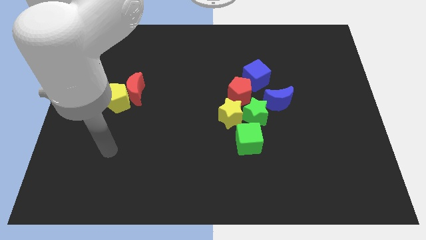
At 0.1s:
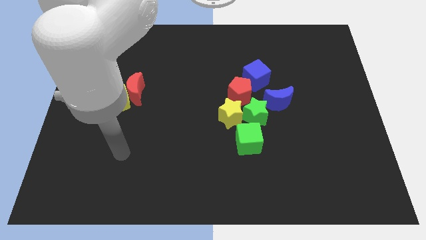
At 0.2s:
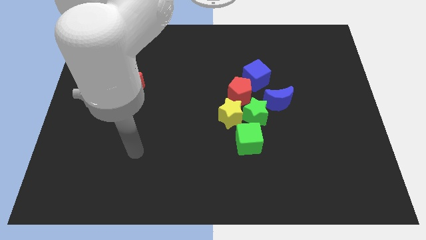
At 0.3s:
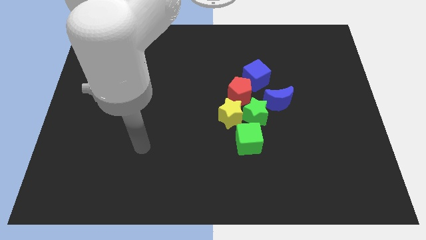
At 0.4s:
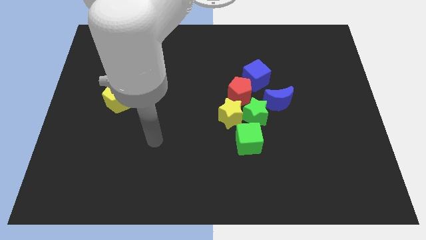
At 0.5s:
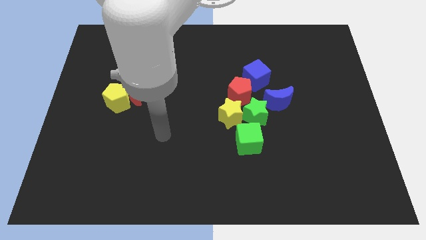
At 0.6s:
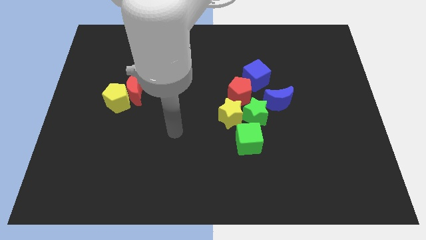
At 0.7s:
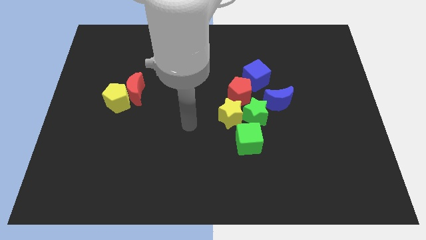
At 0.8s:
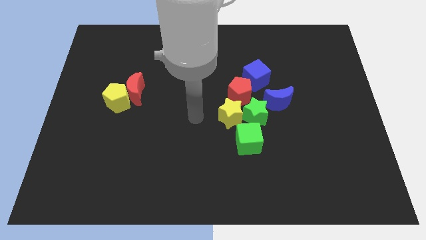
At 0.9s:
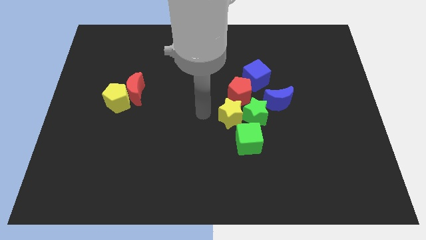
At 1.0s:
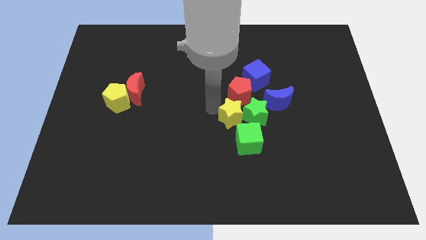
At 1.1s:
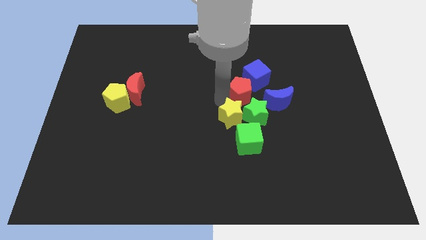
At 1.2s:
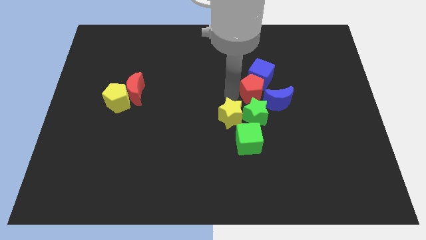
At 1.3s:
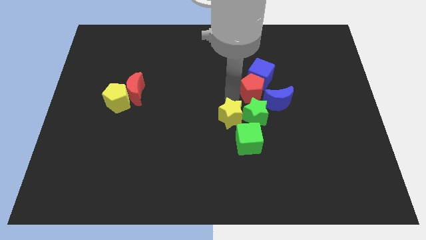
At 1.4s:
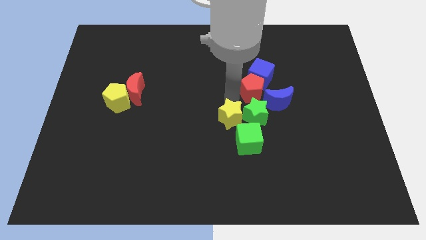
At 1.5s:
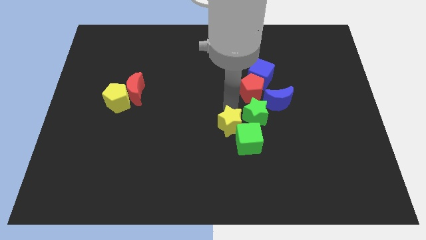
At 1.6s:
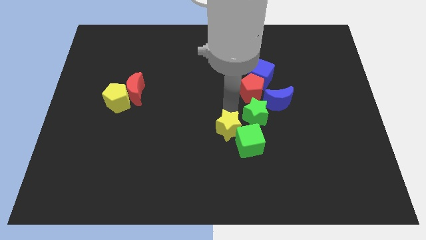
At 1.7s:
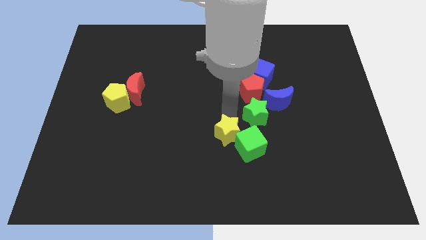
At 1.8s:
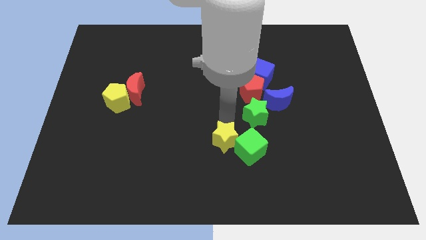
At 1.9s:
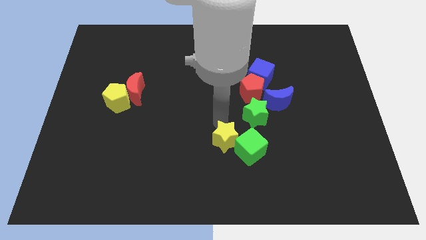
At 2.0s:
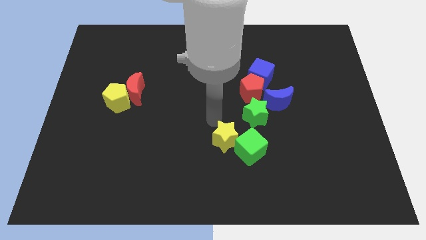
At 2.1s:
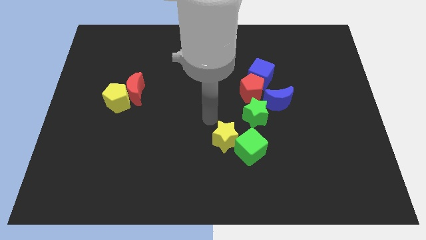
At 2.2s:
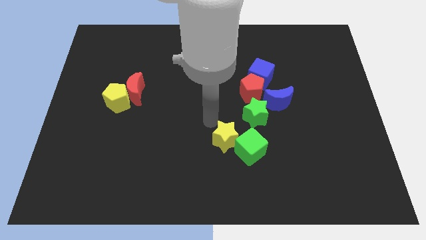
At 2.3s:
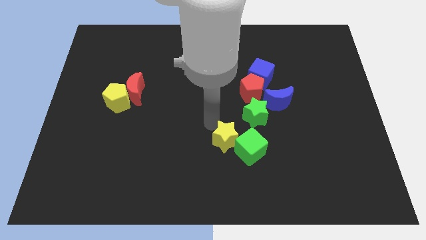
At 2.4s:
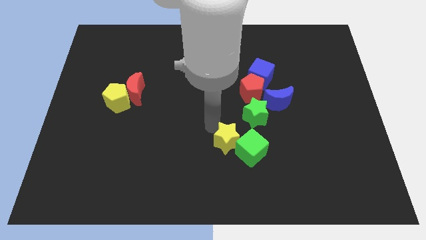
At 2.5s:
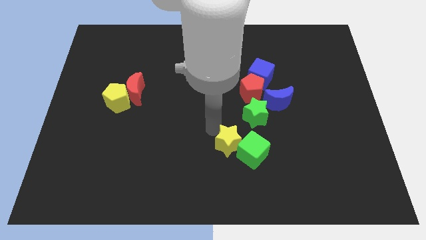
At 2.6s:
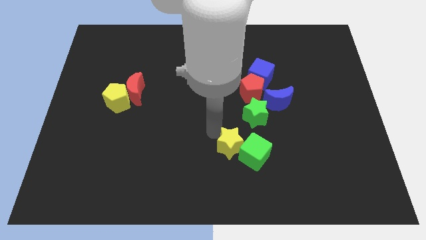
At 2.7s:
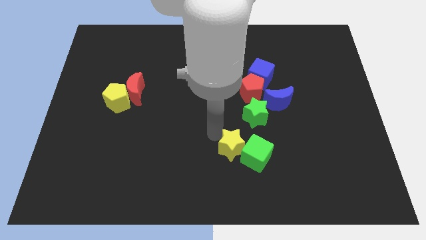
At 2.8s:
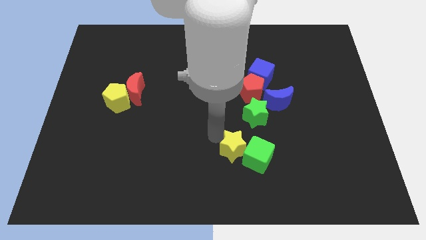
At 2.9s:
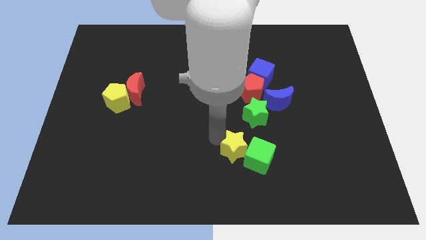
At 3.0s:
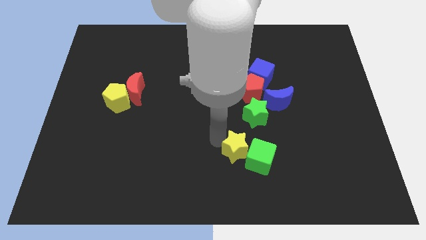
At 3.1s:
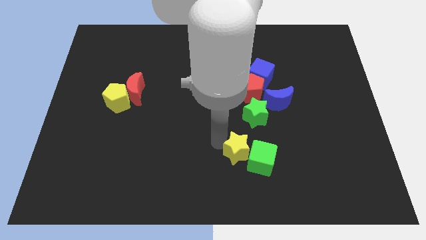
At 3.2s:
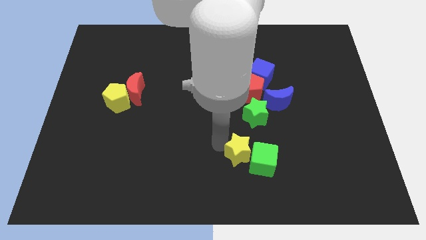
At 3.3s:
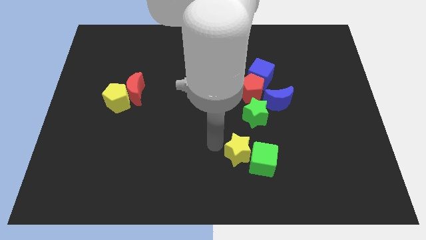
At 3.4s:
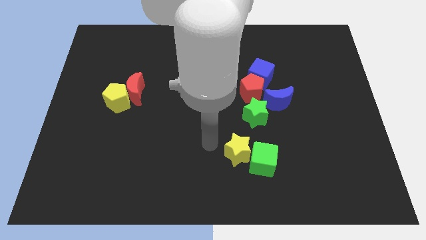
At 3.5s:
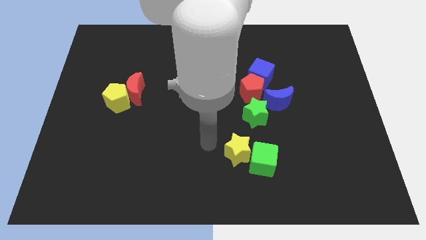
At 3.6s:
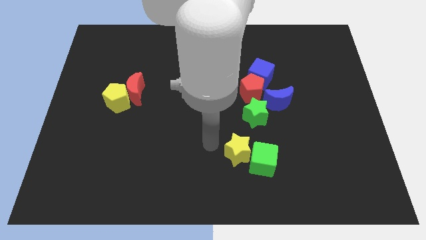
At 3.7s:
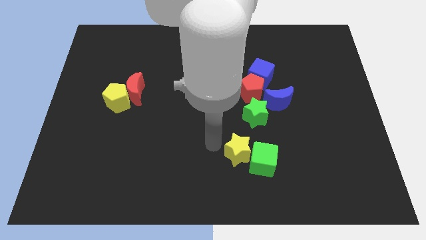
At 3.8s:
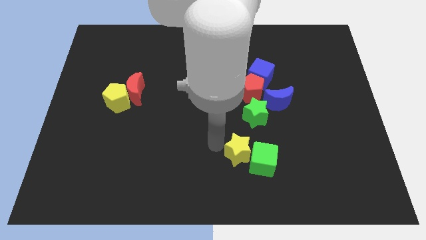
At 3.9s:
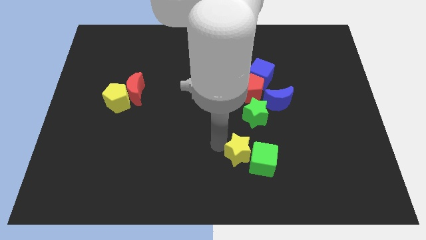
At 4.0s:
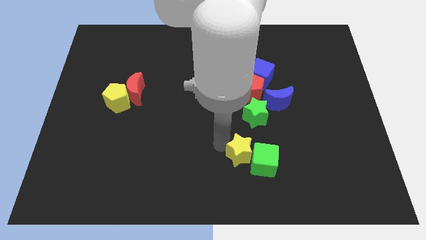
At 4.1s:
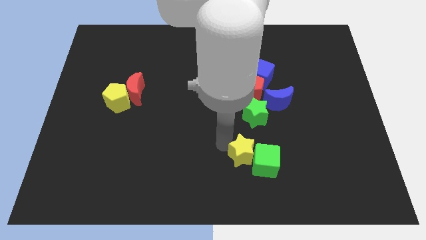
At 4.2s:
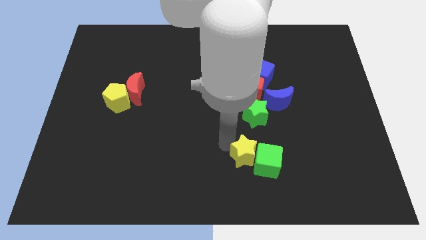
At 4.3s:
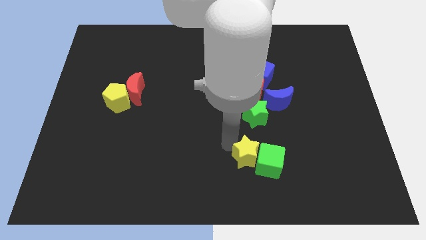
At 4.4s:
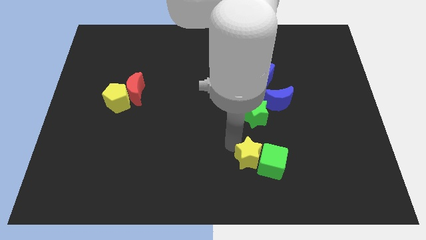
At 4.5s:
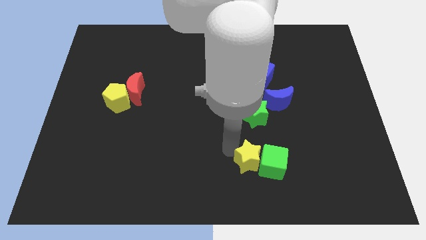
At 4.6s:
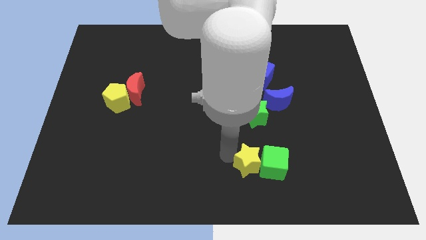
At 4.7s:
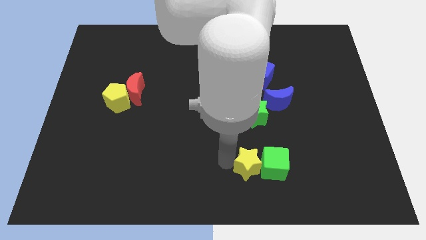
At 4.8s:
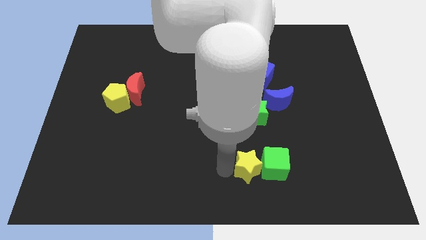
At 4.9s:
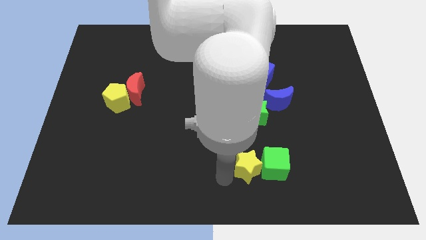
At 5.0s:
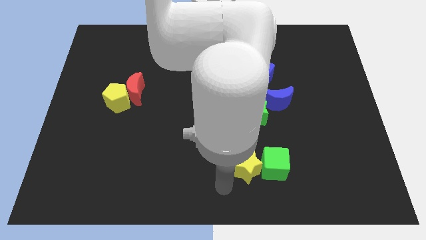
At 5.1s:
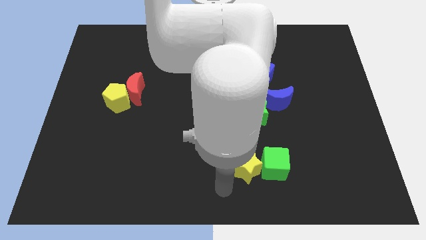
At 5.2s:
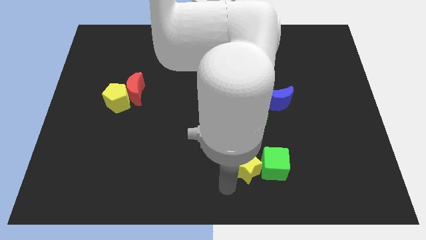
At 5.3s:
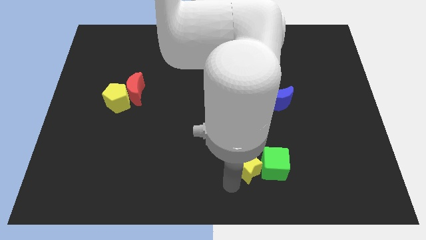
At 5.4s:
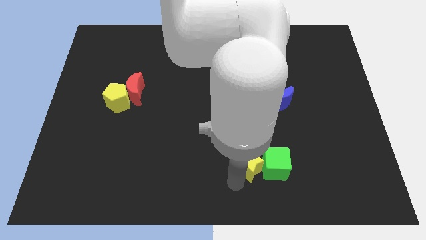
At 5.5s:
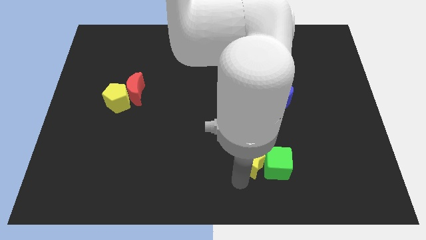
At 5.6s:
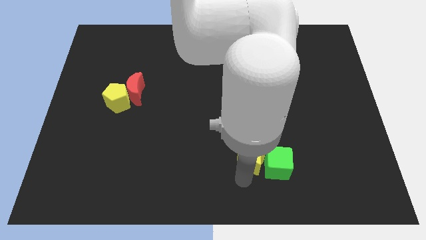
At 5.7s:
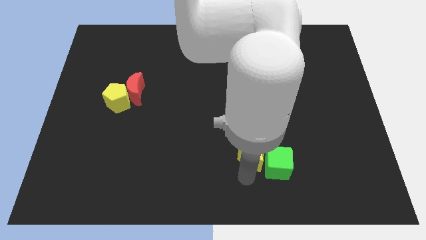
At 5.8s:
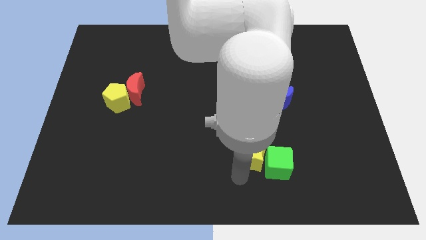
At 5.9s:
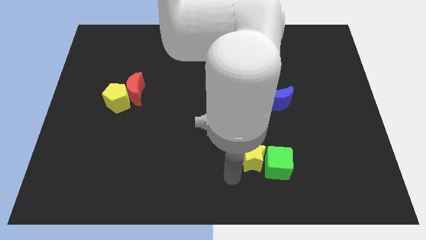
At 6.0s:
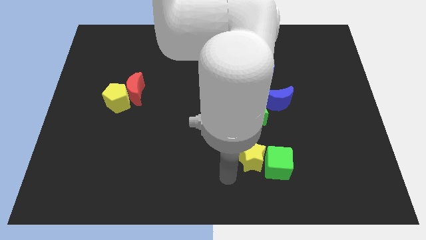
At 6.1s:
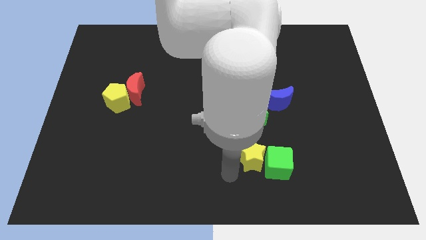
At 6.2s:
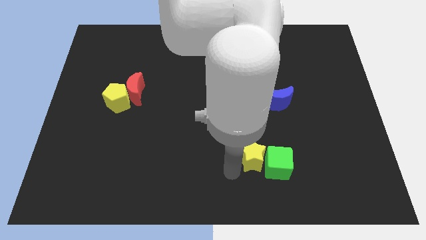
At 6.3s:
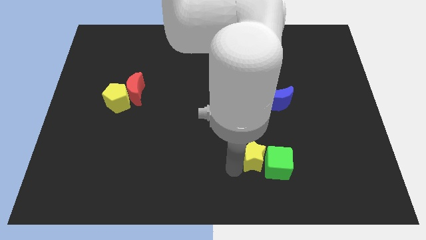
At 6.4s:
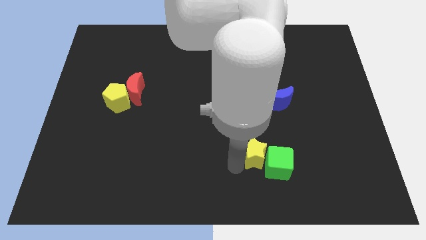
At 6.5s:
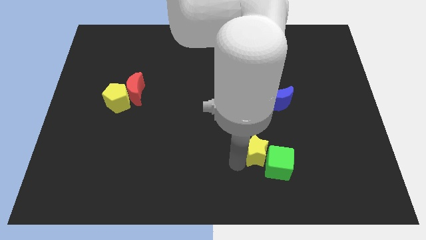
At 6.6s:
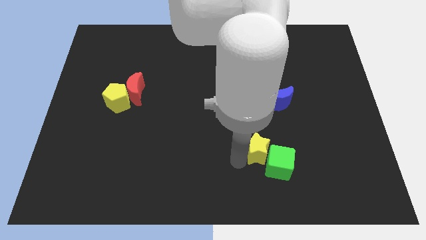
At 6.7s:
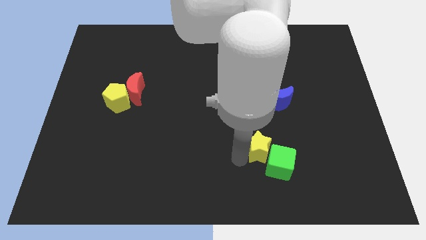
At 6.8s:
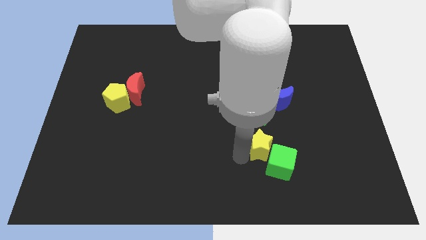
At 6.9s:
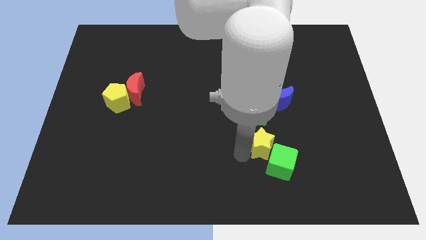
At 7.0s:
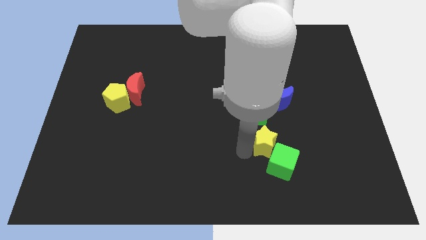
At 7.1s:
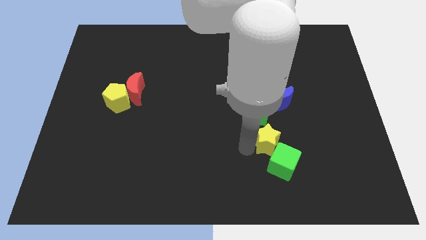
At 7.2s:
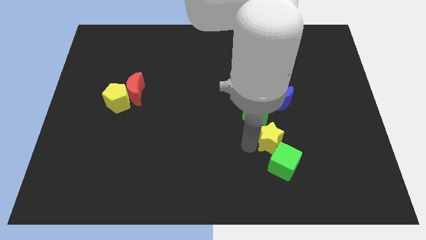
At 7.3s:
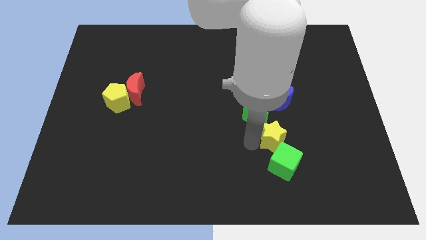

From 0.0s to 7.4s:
slightly push the yellow star right

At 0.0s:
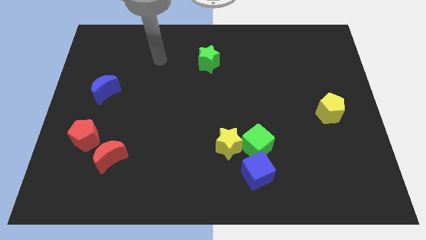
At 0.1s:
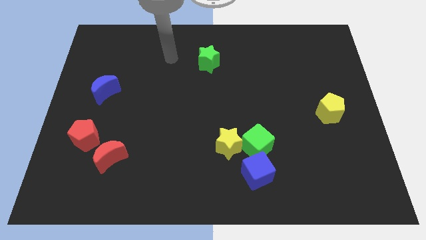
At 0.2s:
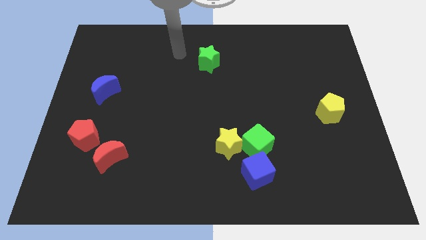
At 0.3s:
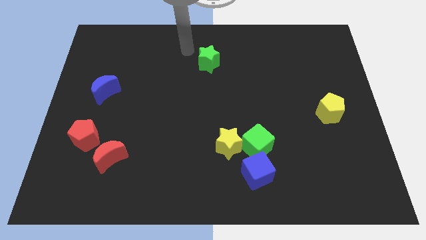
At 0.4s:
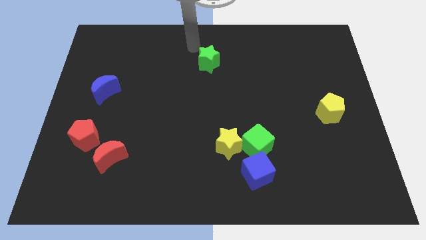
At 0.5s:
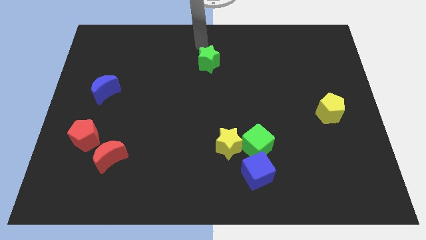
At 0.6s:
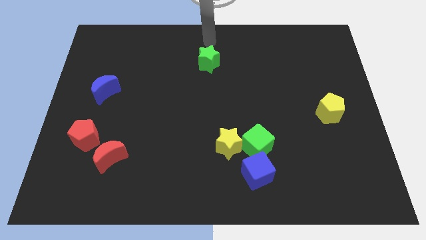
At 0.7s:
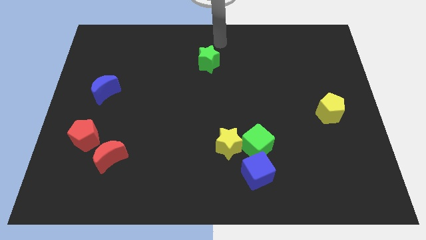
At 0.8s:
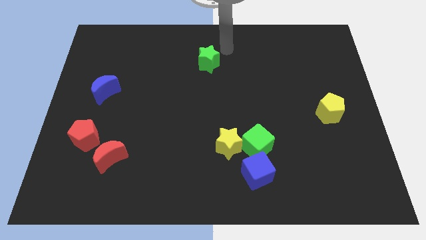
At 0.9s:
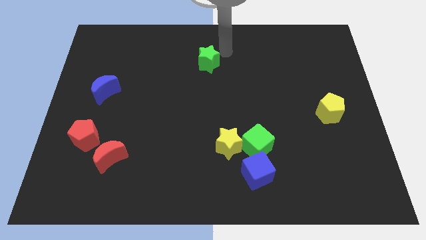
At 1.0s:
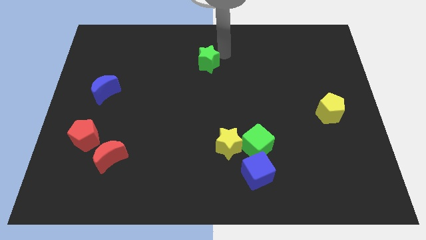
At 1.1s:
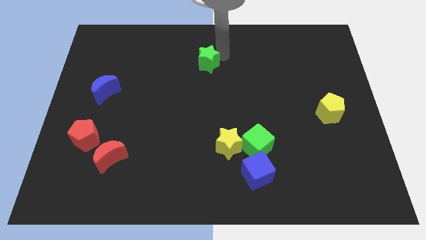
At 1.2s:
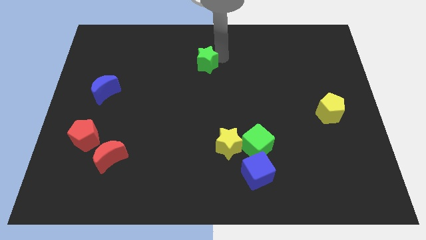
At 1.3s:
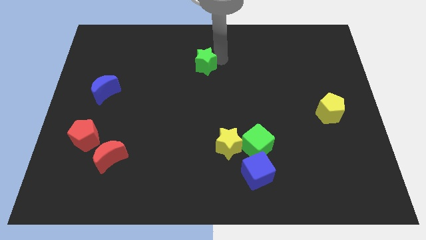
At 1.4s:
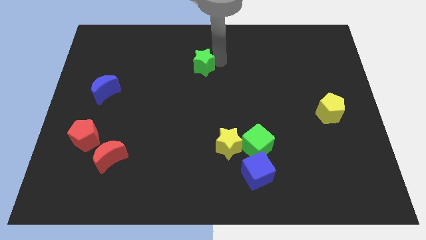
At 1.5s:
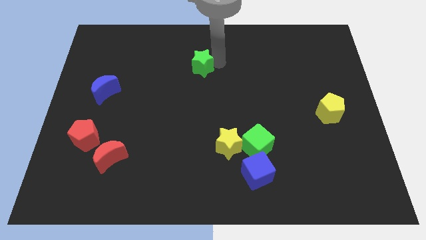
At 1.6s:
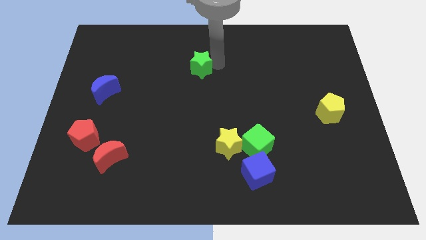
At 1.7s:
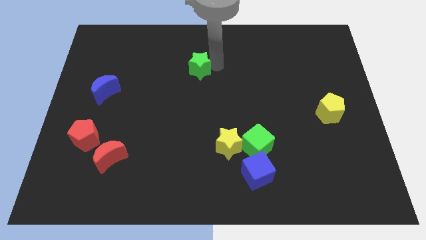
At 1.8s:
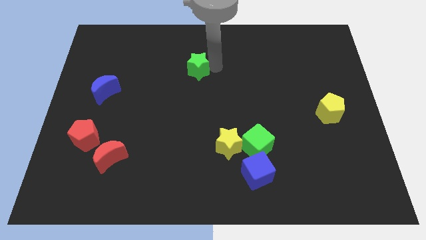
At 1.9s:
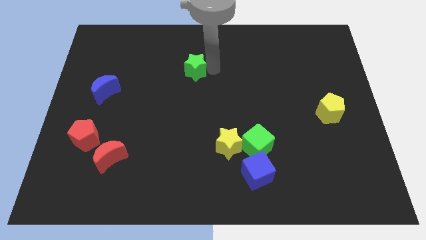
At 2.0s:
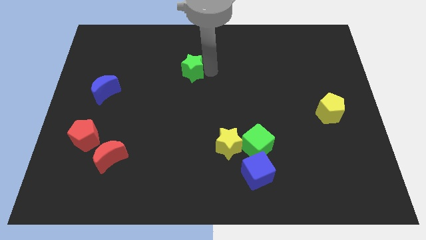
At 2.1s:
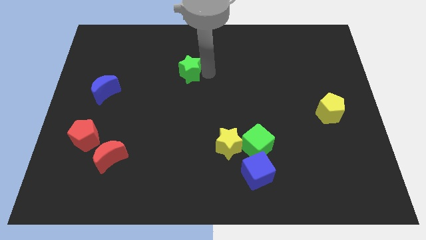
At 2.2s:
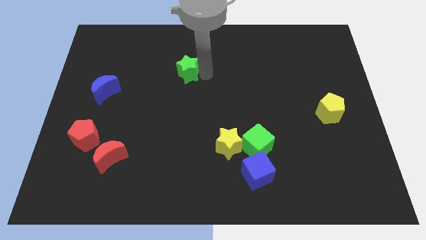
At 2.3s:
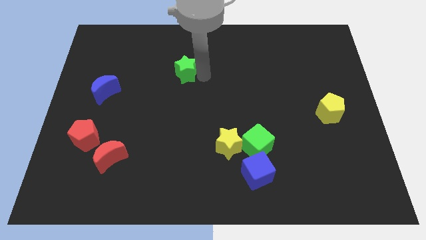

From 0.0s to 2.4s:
slightly slide the green star down and left diagonally
